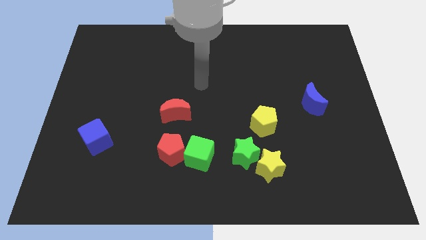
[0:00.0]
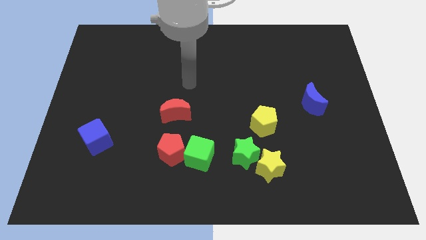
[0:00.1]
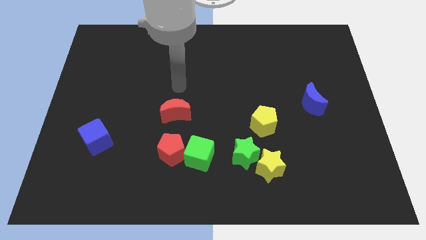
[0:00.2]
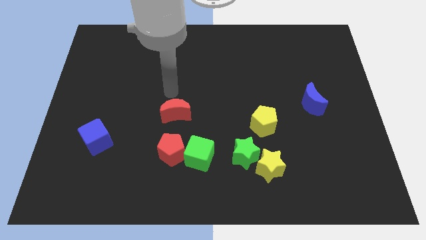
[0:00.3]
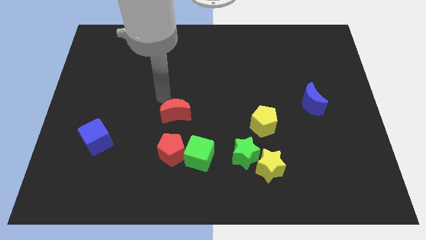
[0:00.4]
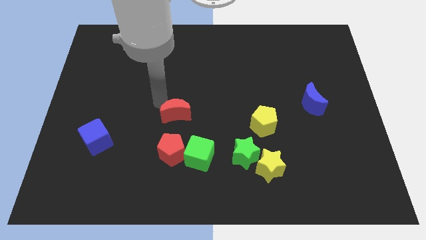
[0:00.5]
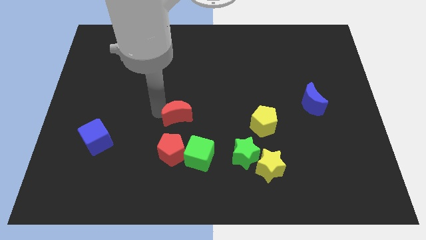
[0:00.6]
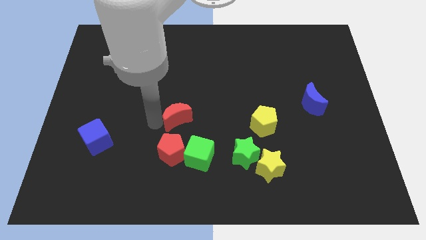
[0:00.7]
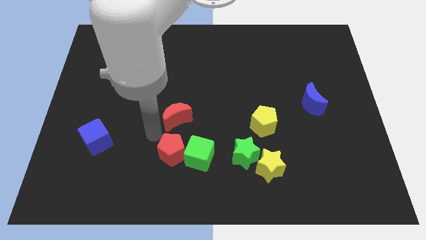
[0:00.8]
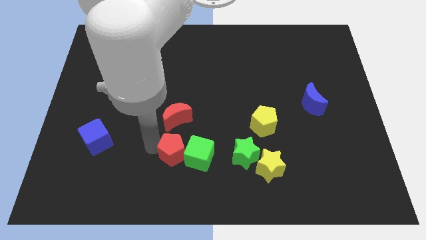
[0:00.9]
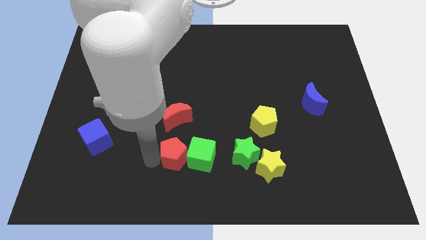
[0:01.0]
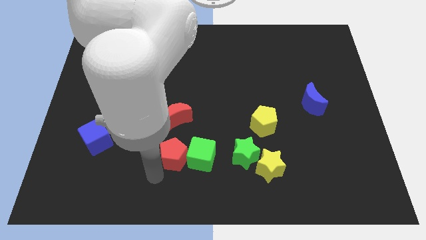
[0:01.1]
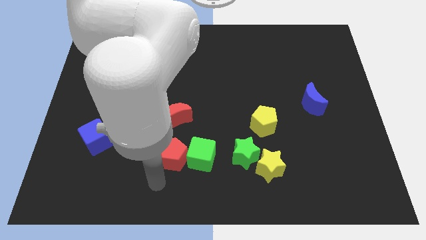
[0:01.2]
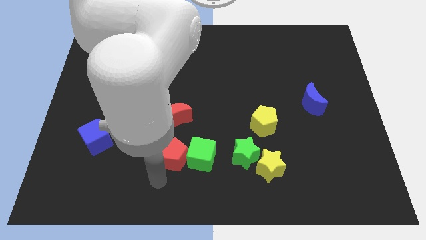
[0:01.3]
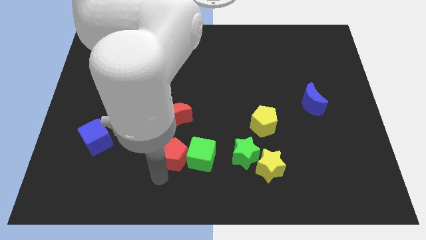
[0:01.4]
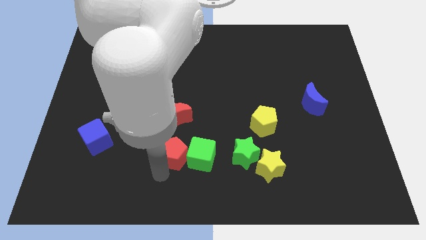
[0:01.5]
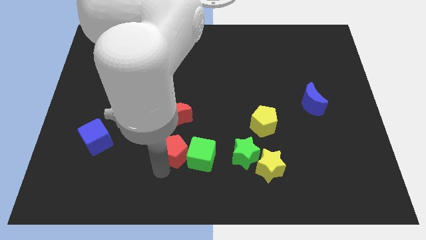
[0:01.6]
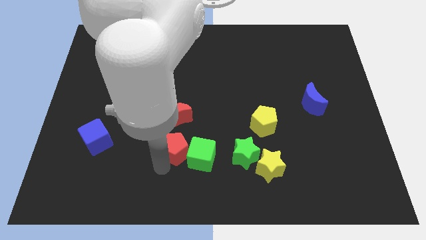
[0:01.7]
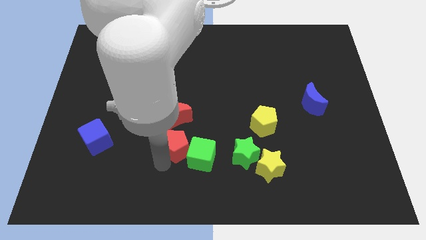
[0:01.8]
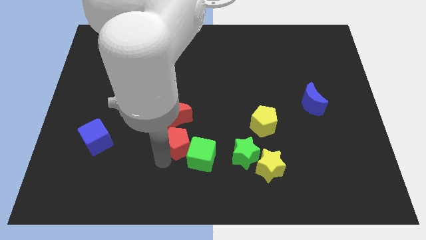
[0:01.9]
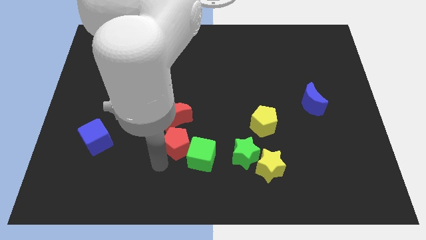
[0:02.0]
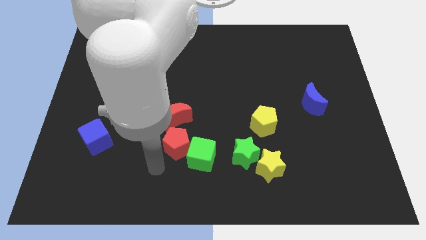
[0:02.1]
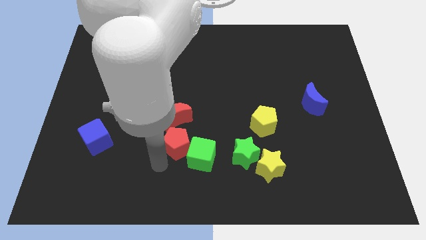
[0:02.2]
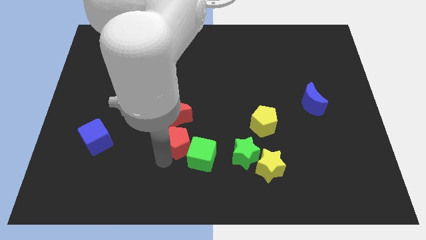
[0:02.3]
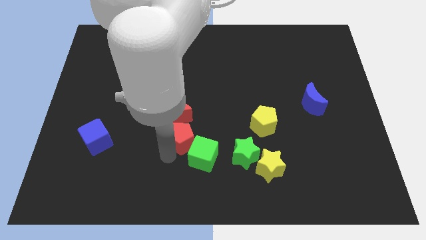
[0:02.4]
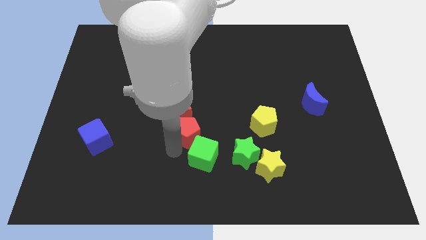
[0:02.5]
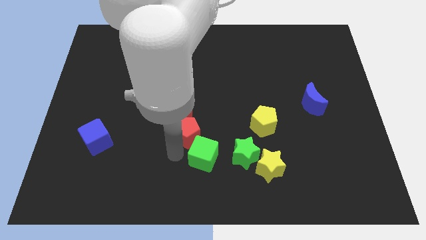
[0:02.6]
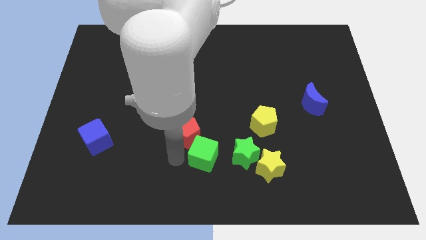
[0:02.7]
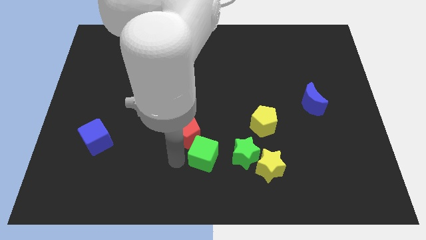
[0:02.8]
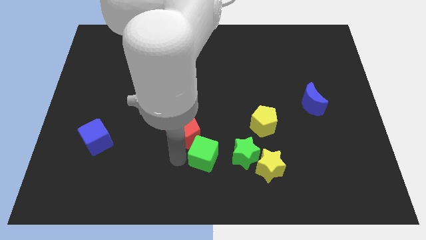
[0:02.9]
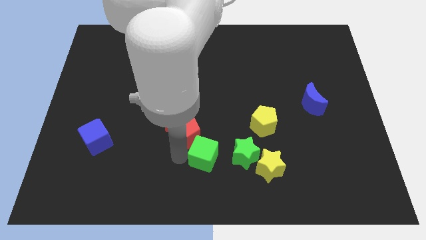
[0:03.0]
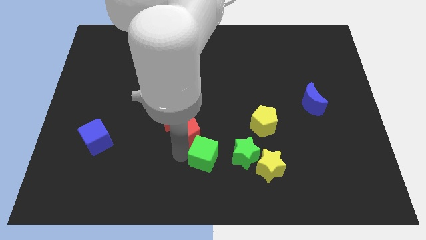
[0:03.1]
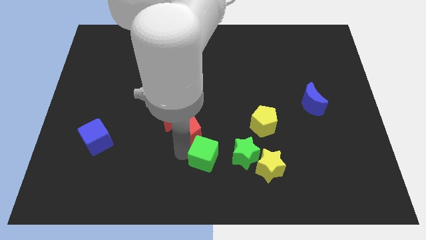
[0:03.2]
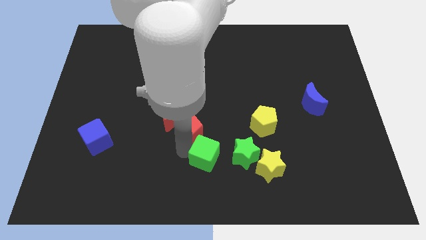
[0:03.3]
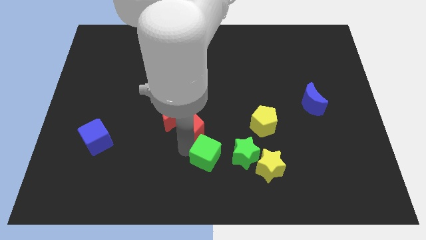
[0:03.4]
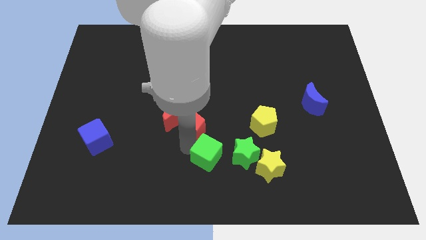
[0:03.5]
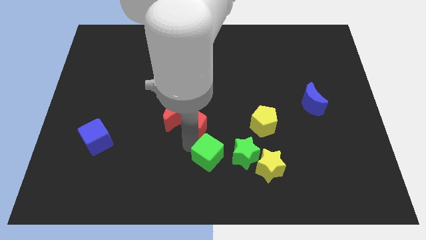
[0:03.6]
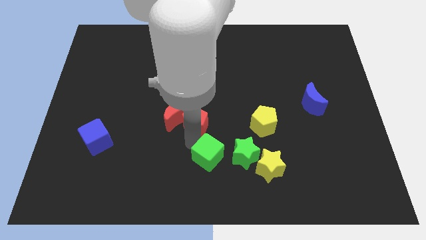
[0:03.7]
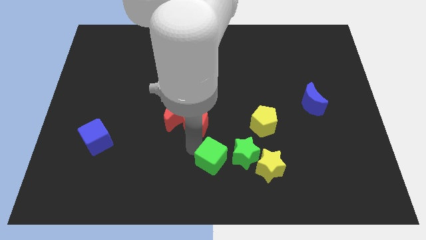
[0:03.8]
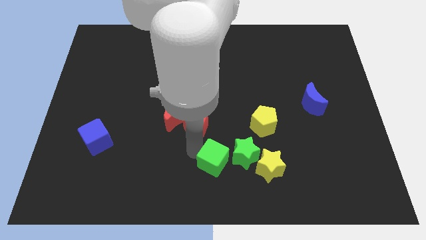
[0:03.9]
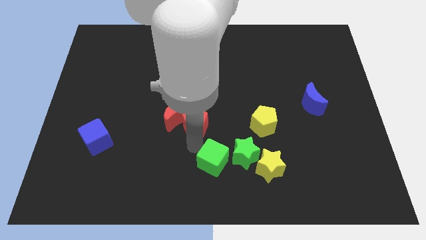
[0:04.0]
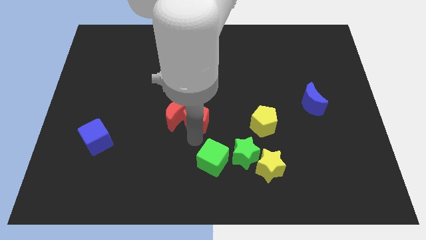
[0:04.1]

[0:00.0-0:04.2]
slightly slide the red pentagon upwards

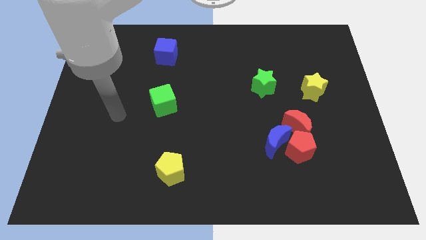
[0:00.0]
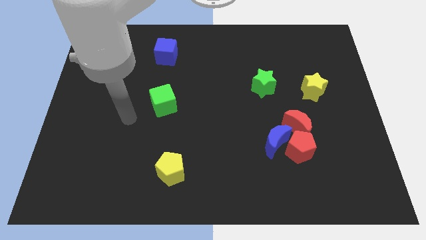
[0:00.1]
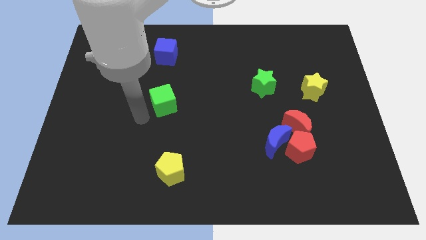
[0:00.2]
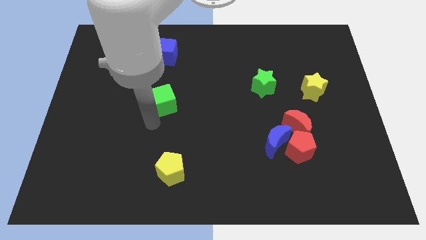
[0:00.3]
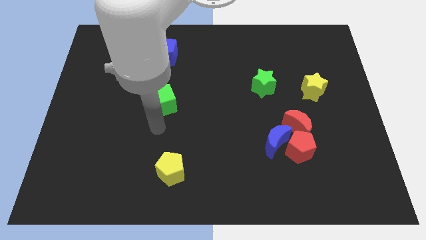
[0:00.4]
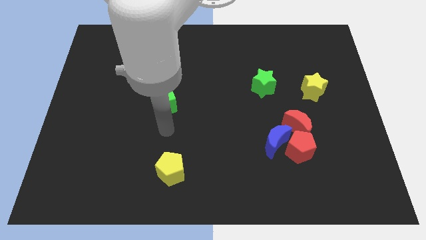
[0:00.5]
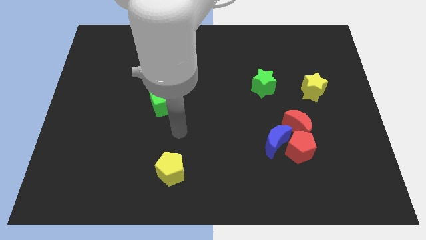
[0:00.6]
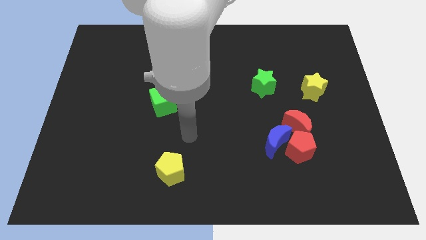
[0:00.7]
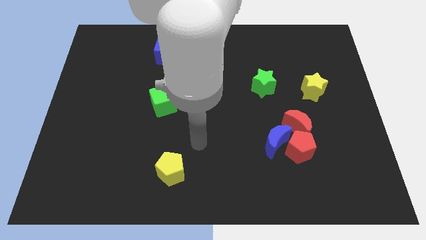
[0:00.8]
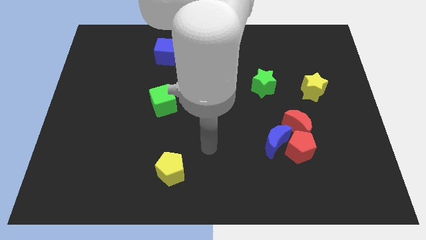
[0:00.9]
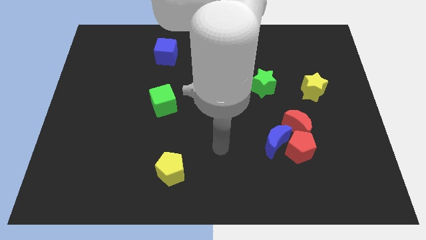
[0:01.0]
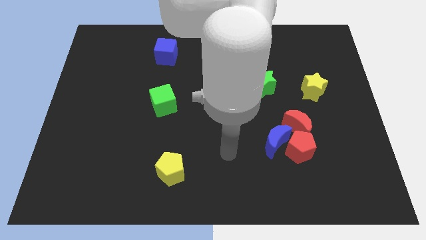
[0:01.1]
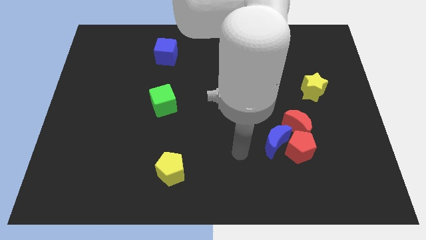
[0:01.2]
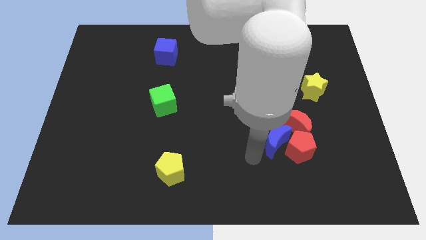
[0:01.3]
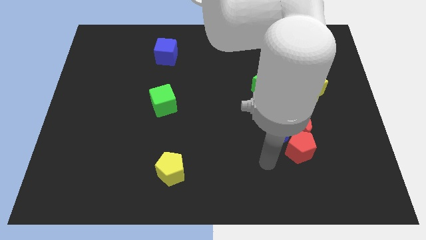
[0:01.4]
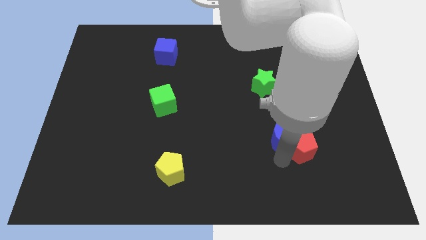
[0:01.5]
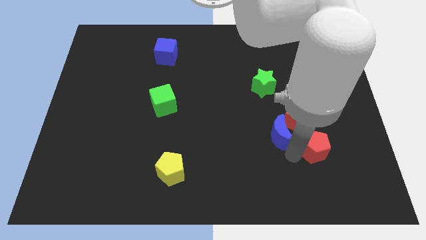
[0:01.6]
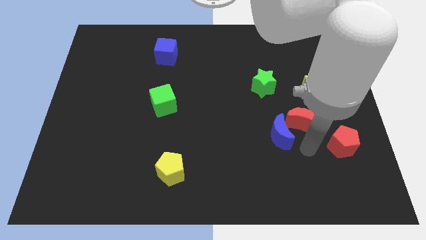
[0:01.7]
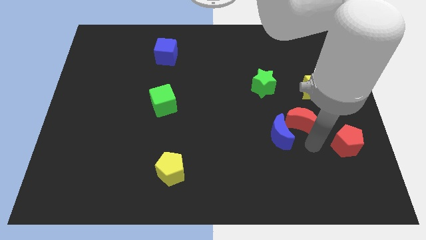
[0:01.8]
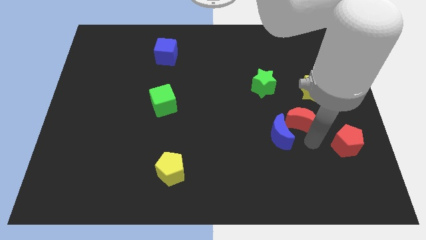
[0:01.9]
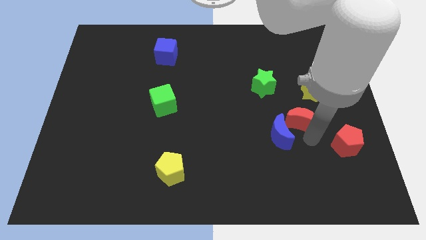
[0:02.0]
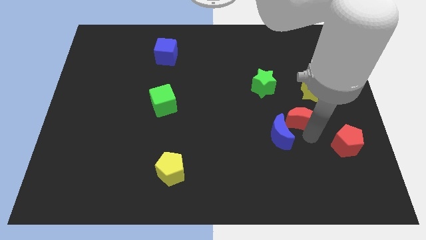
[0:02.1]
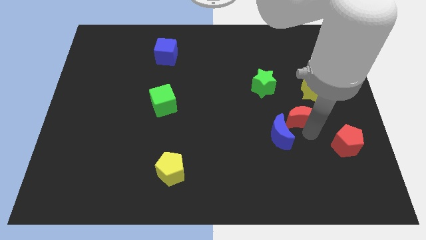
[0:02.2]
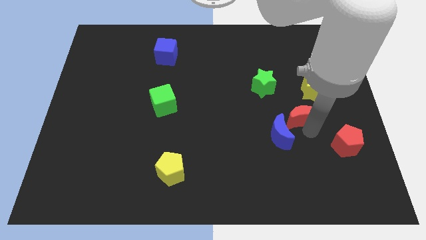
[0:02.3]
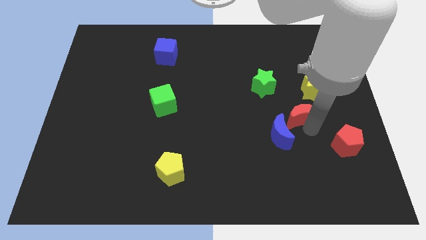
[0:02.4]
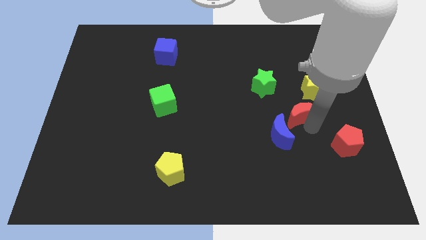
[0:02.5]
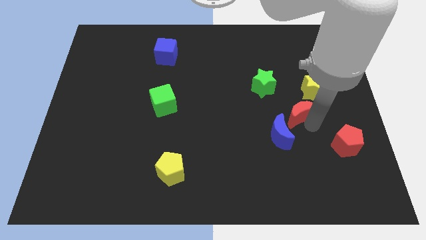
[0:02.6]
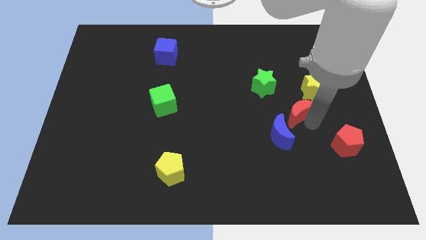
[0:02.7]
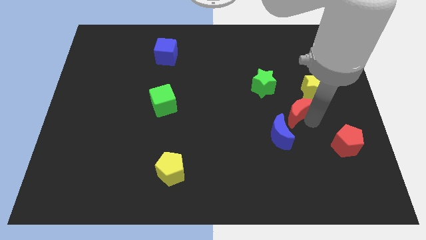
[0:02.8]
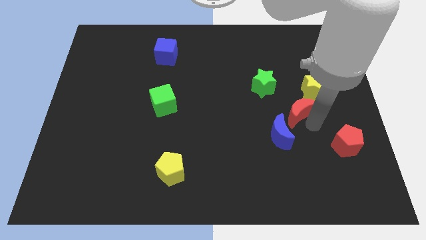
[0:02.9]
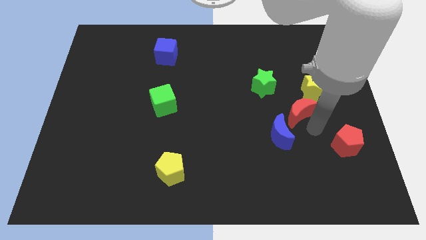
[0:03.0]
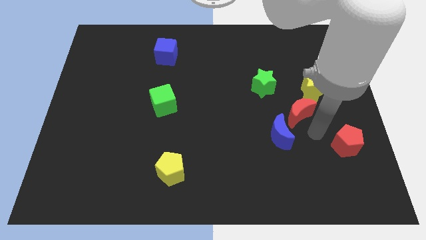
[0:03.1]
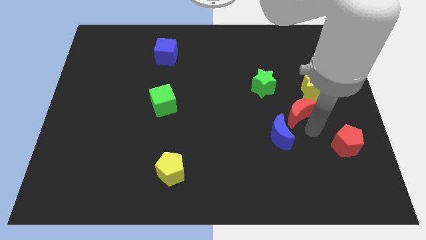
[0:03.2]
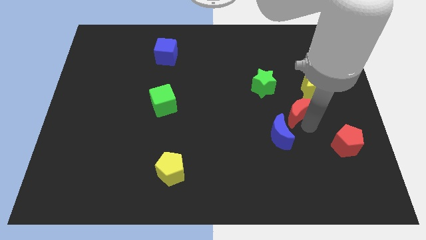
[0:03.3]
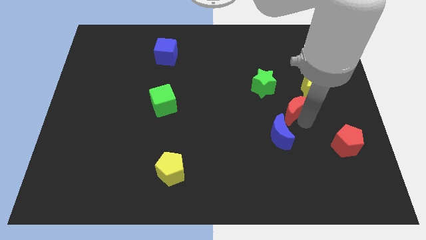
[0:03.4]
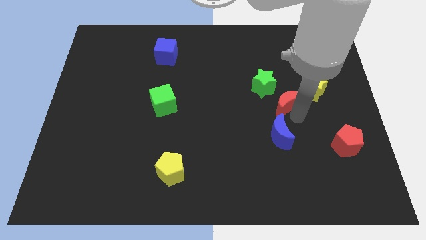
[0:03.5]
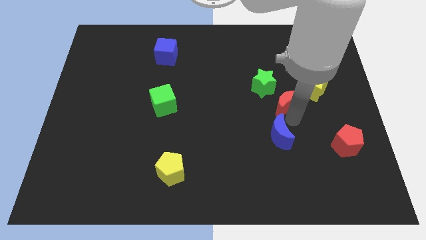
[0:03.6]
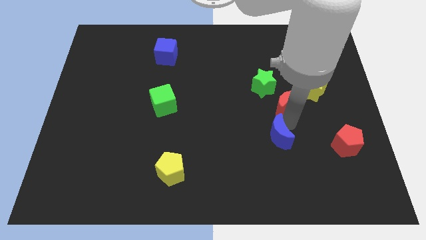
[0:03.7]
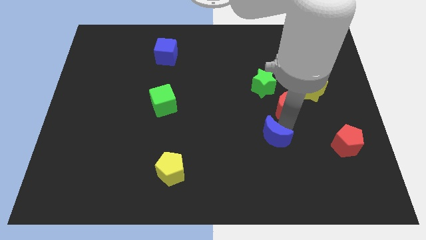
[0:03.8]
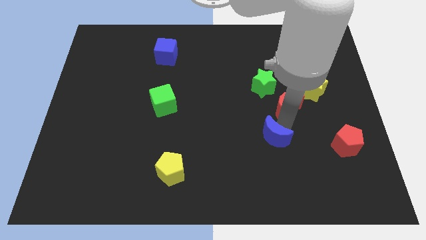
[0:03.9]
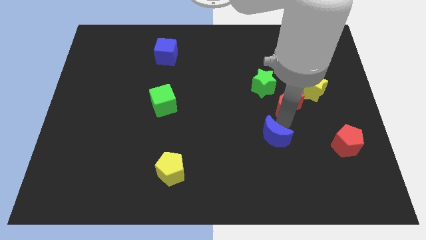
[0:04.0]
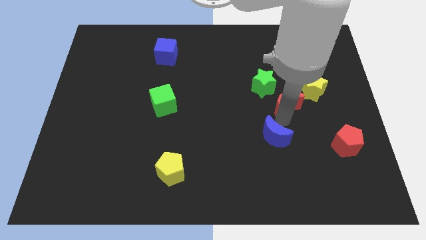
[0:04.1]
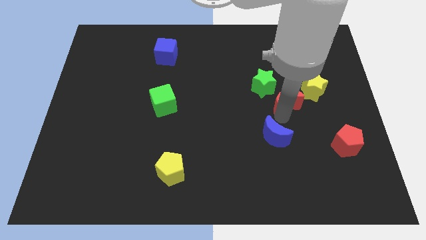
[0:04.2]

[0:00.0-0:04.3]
slide the red moon up somewhat
